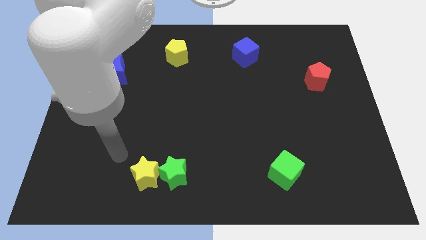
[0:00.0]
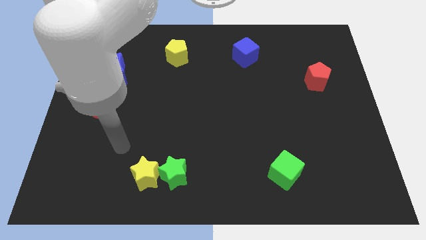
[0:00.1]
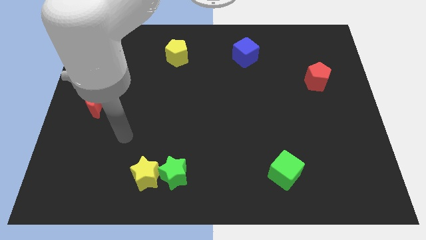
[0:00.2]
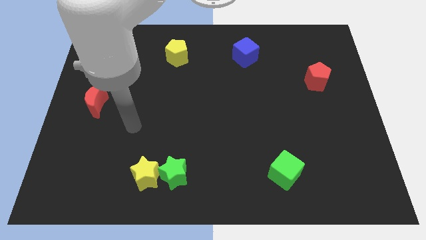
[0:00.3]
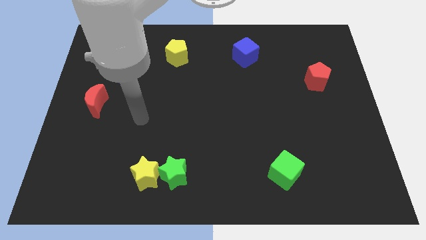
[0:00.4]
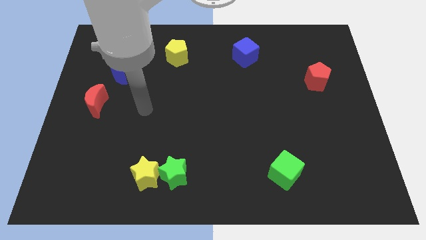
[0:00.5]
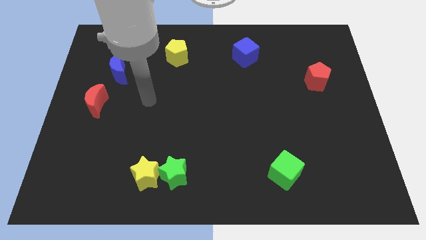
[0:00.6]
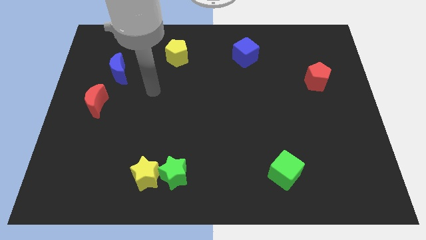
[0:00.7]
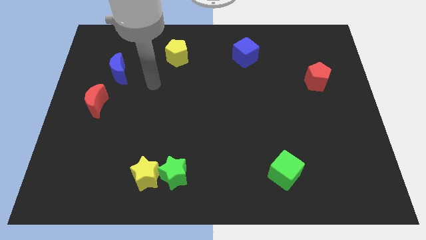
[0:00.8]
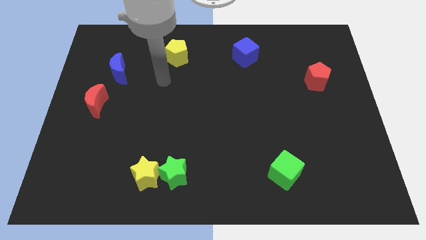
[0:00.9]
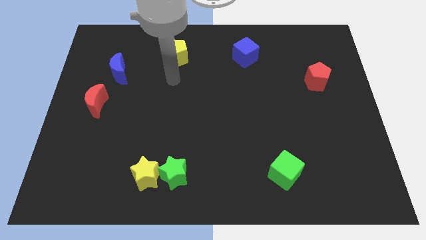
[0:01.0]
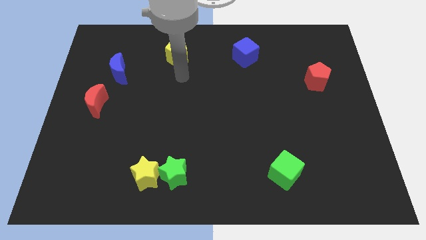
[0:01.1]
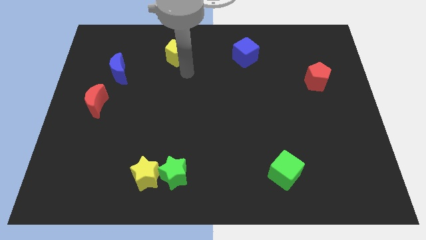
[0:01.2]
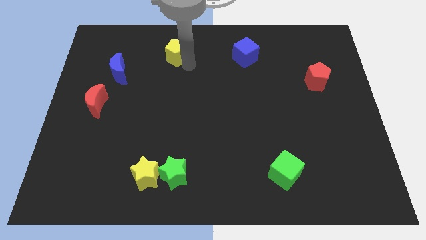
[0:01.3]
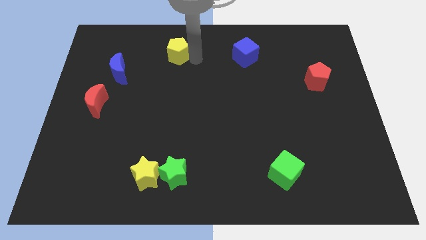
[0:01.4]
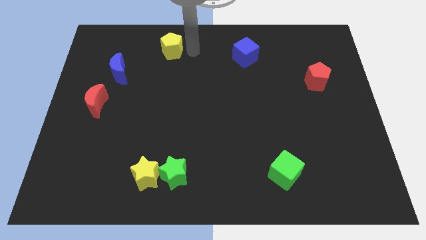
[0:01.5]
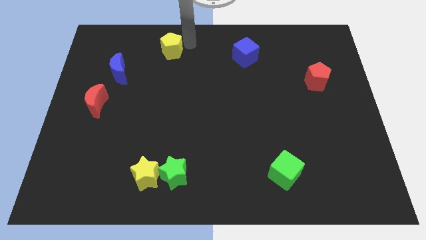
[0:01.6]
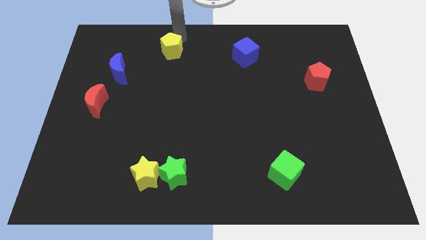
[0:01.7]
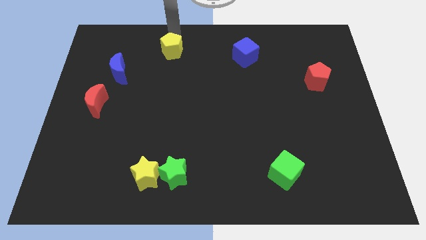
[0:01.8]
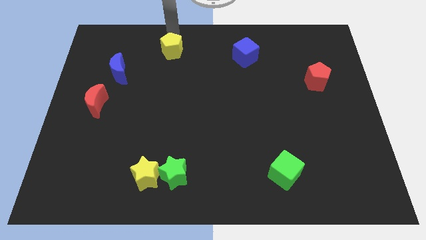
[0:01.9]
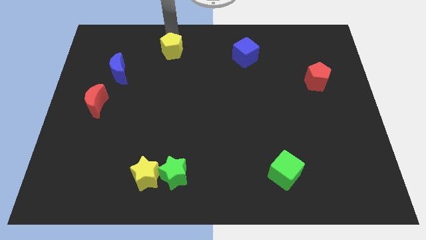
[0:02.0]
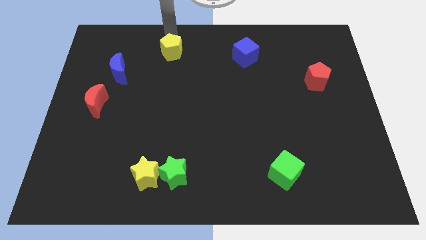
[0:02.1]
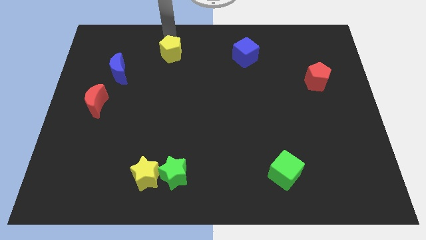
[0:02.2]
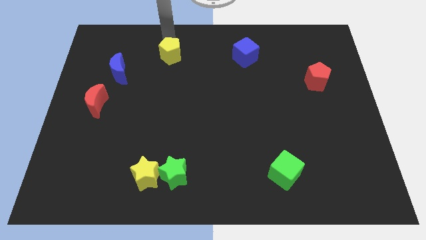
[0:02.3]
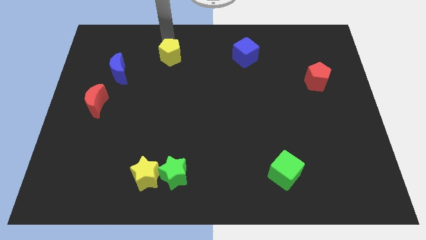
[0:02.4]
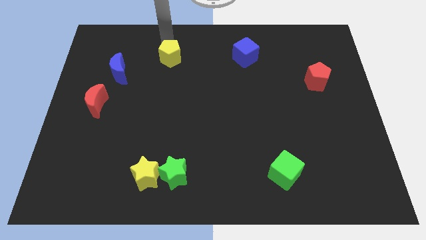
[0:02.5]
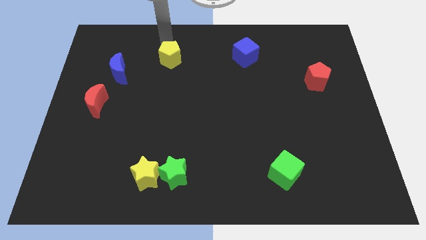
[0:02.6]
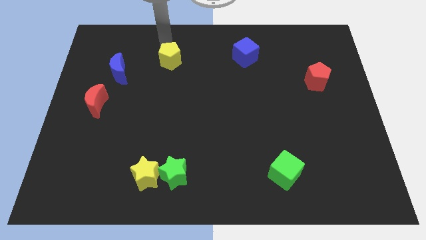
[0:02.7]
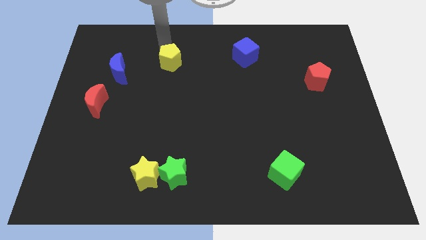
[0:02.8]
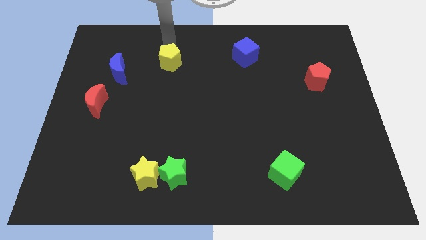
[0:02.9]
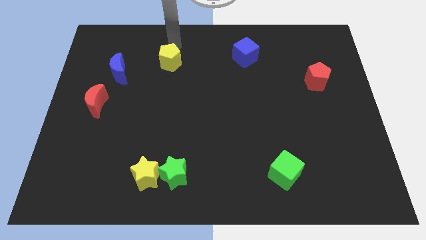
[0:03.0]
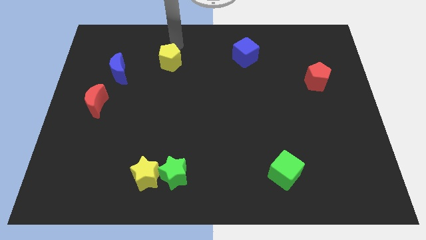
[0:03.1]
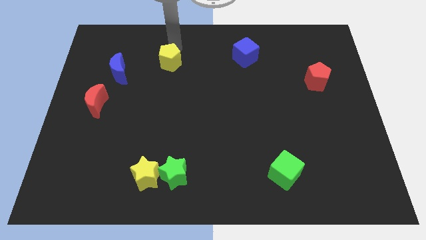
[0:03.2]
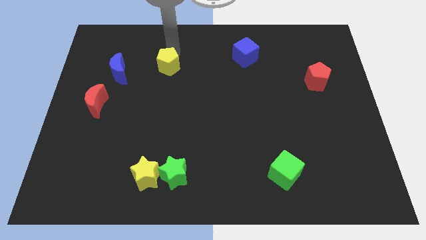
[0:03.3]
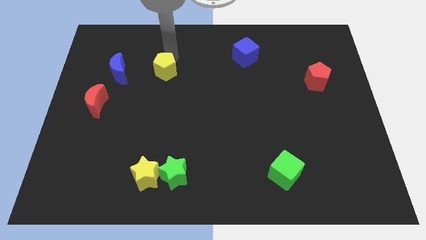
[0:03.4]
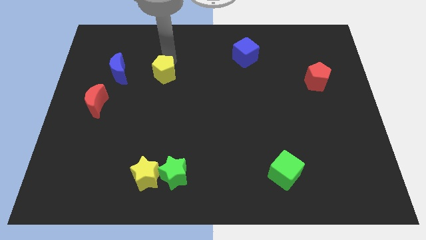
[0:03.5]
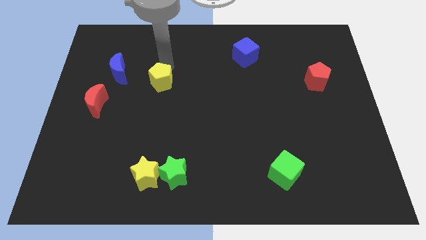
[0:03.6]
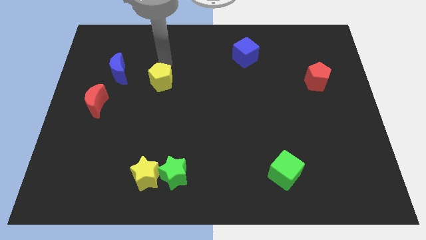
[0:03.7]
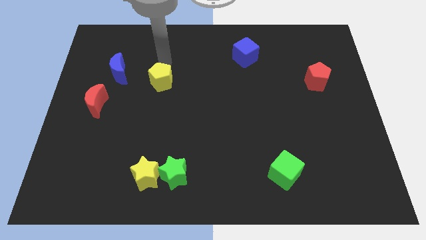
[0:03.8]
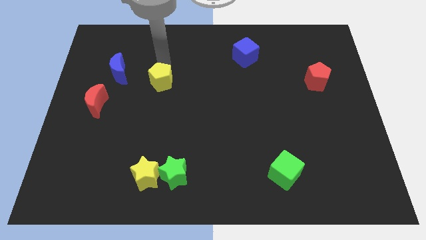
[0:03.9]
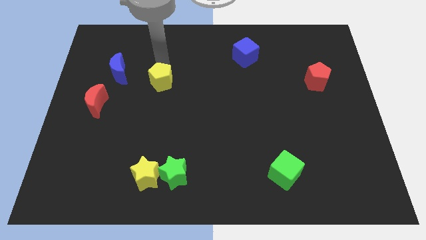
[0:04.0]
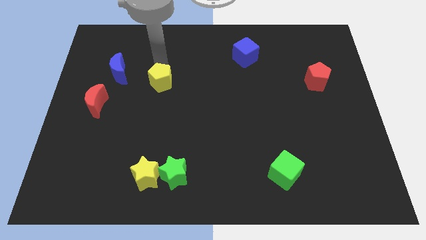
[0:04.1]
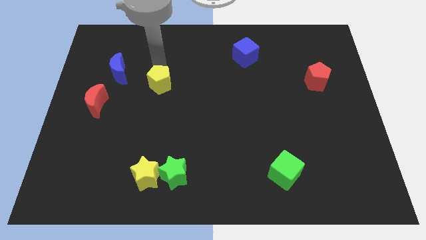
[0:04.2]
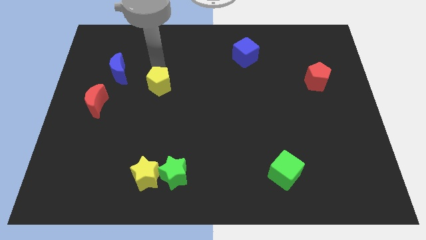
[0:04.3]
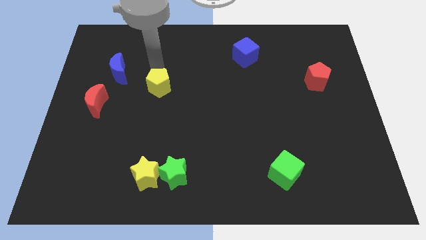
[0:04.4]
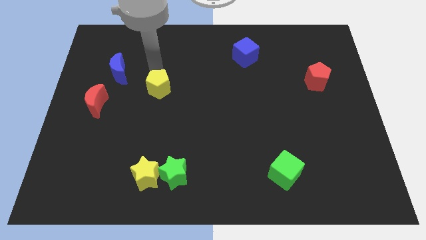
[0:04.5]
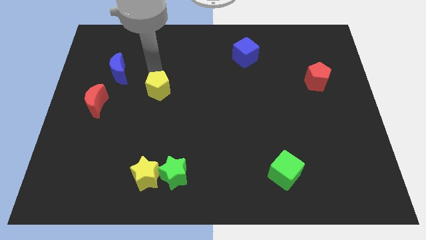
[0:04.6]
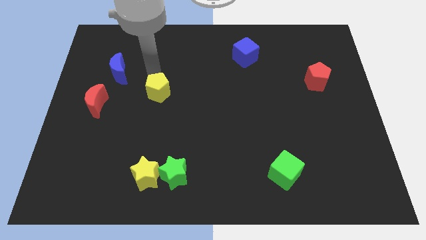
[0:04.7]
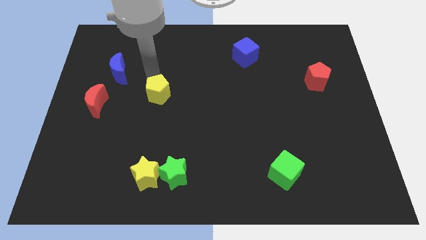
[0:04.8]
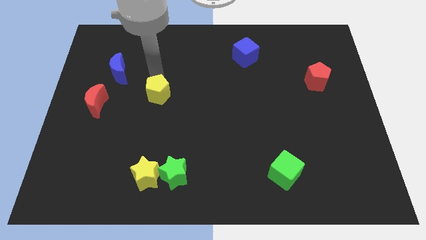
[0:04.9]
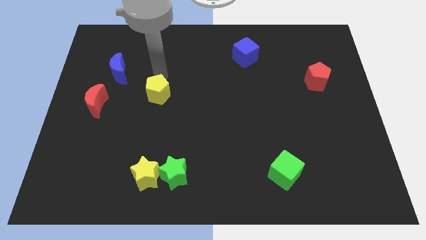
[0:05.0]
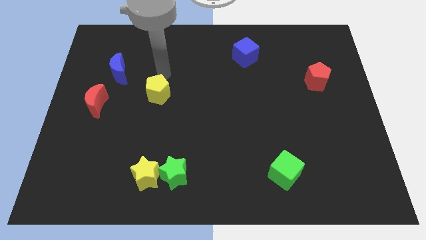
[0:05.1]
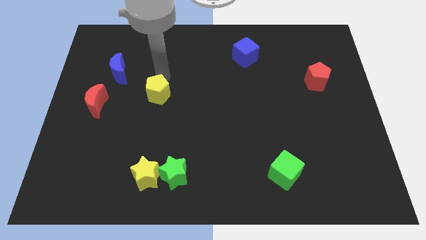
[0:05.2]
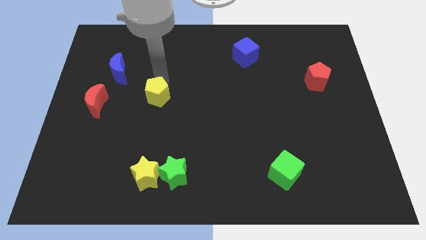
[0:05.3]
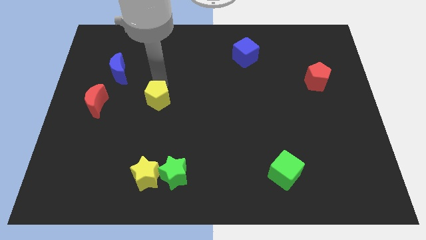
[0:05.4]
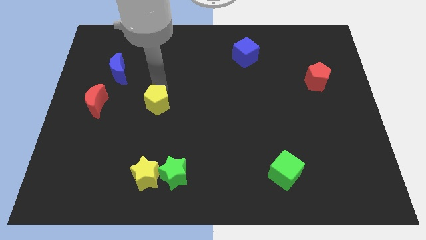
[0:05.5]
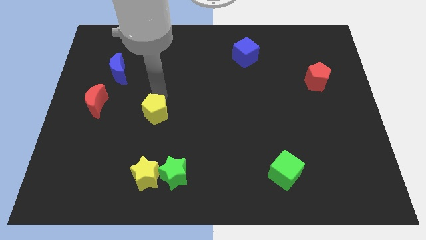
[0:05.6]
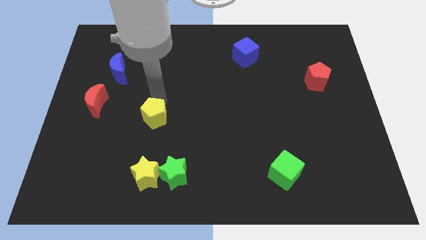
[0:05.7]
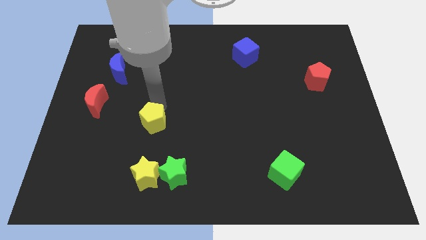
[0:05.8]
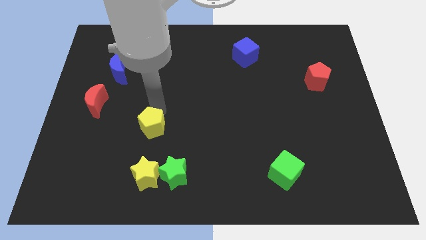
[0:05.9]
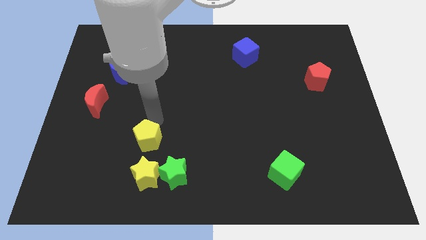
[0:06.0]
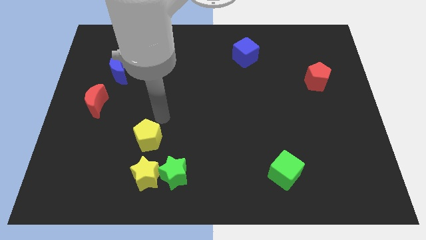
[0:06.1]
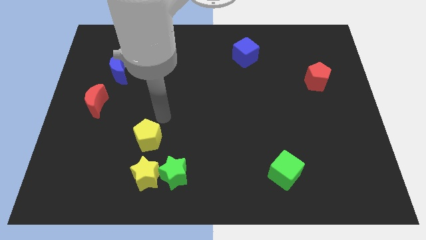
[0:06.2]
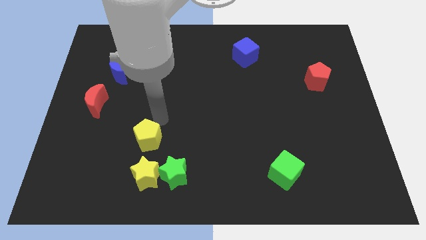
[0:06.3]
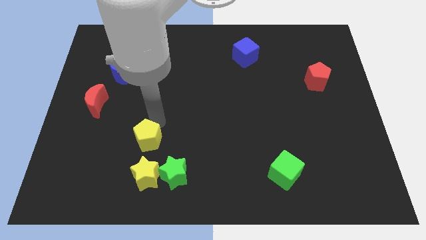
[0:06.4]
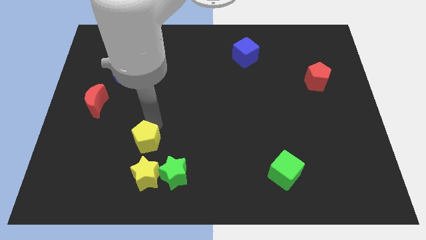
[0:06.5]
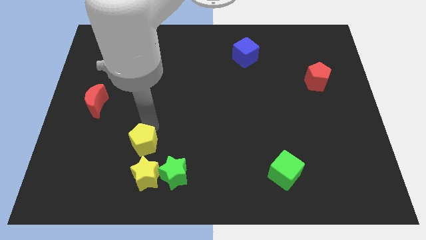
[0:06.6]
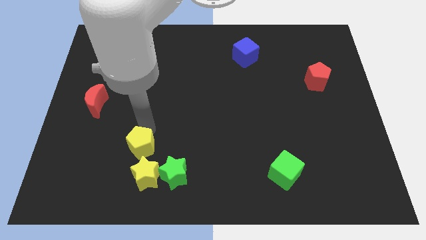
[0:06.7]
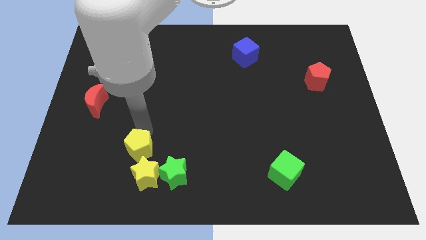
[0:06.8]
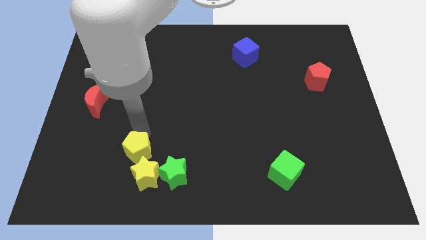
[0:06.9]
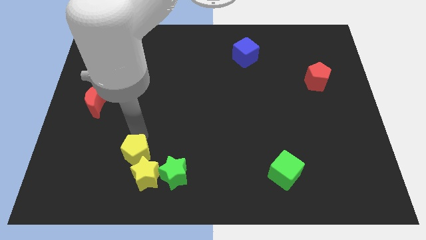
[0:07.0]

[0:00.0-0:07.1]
push the yellow pentagon just left of the green star
